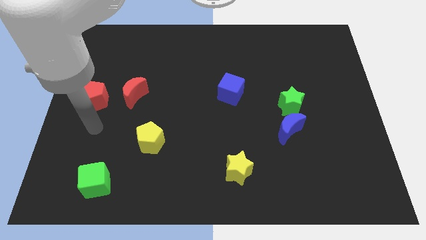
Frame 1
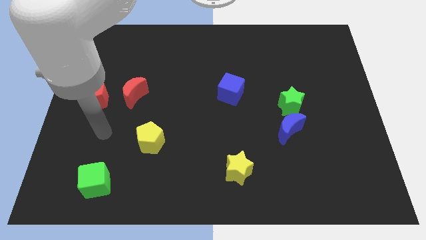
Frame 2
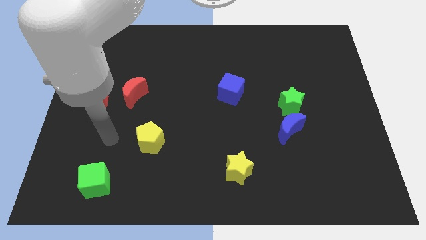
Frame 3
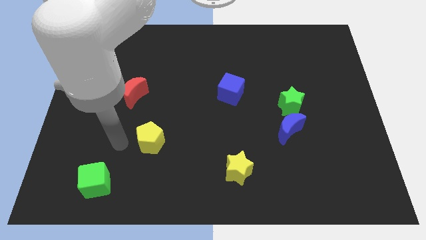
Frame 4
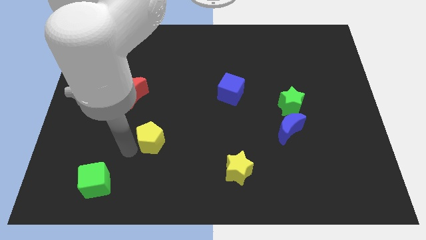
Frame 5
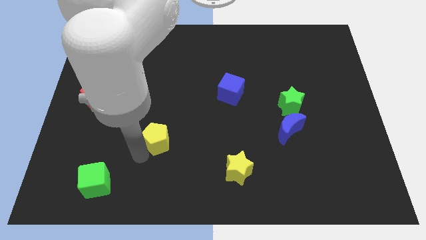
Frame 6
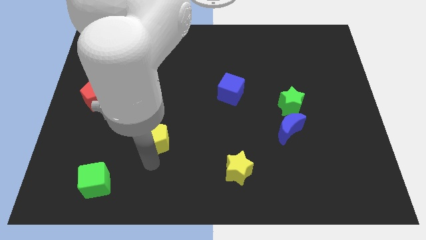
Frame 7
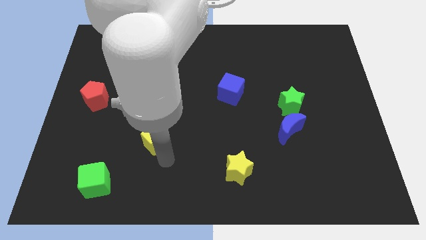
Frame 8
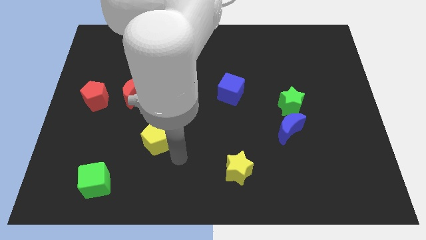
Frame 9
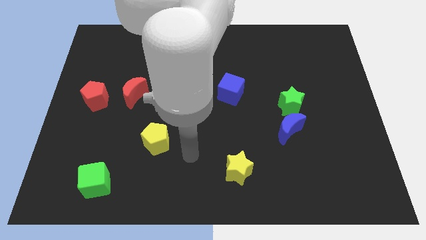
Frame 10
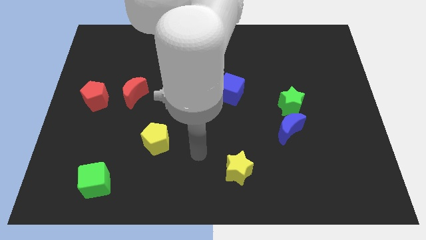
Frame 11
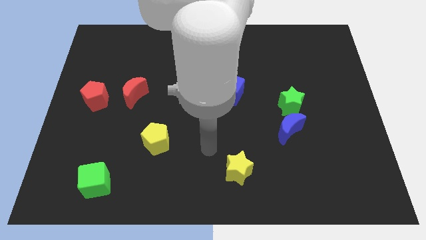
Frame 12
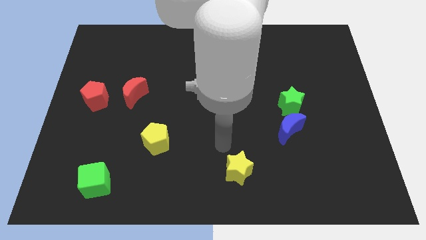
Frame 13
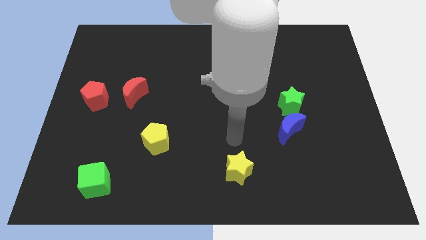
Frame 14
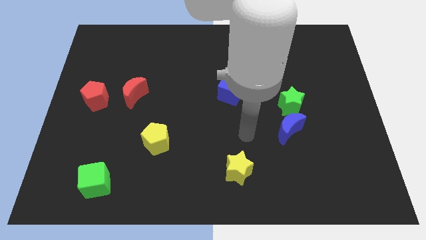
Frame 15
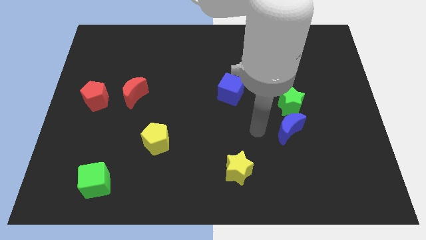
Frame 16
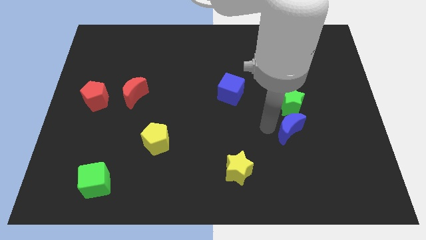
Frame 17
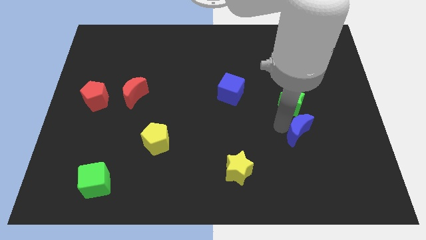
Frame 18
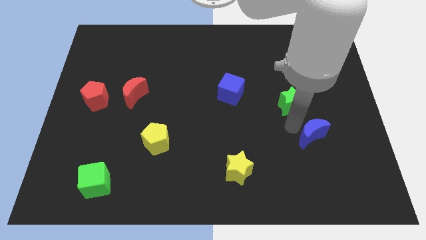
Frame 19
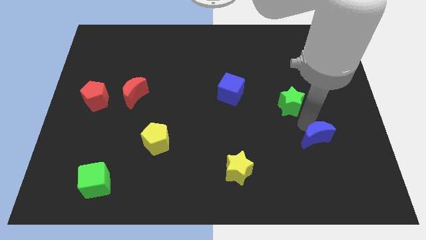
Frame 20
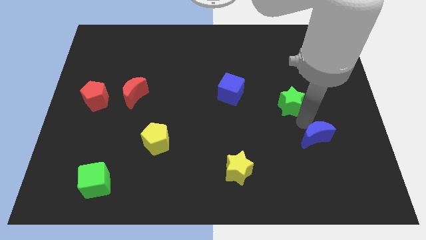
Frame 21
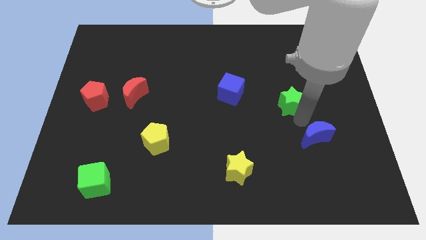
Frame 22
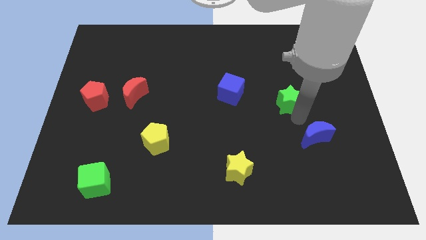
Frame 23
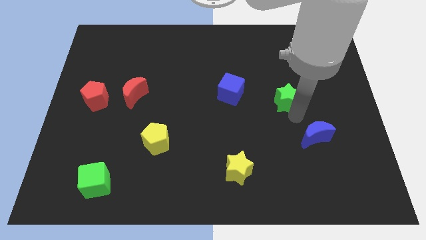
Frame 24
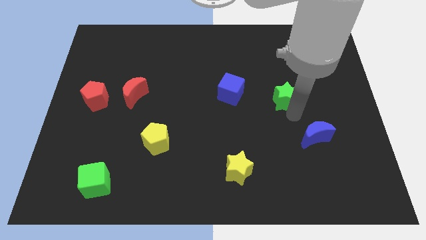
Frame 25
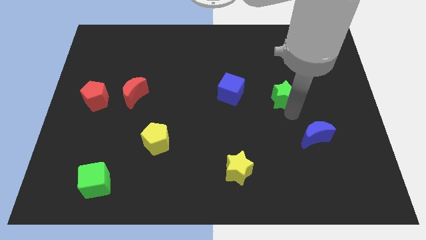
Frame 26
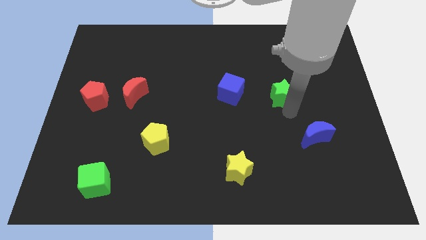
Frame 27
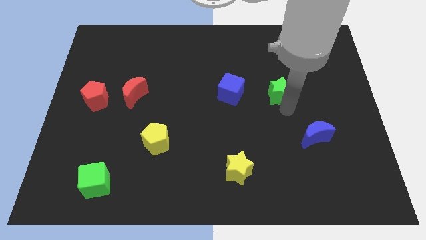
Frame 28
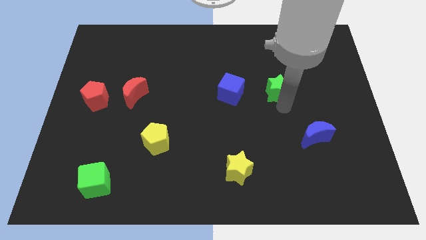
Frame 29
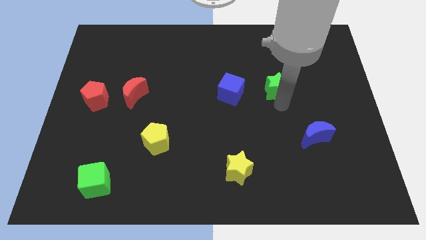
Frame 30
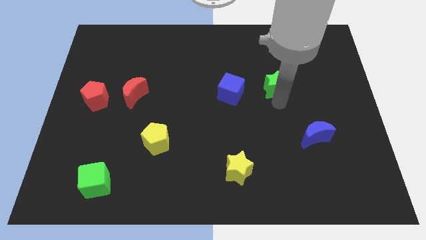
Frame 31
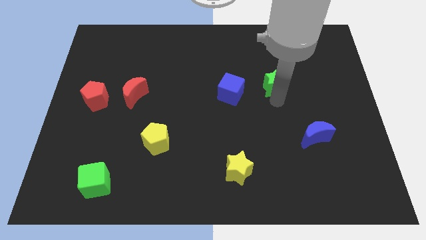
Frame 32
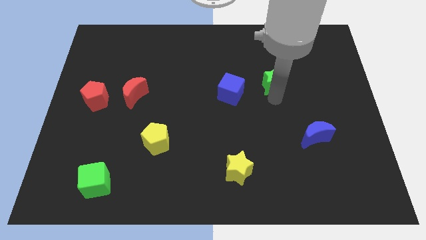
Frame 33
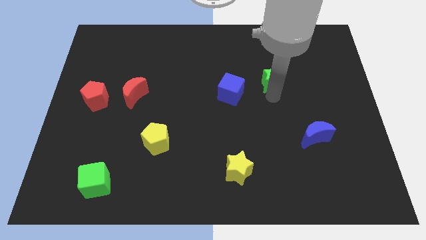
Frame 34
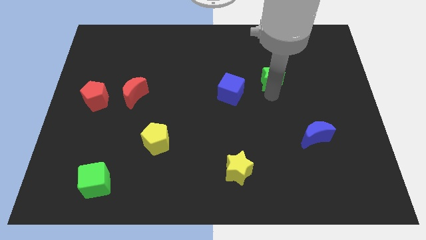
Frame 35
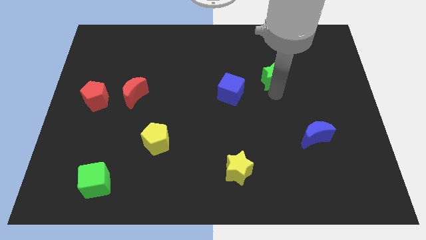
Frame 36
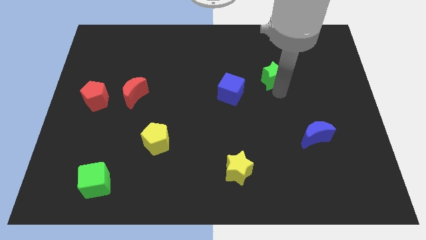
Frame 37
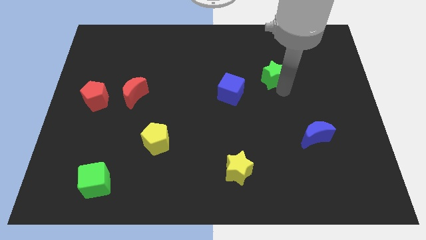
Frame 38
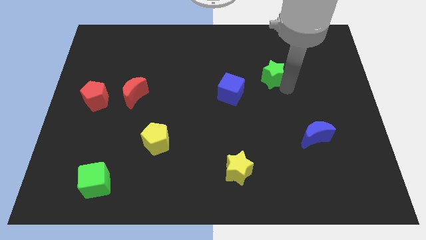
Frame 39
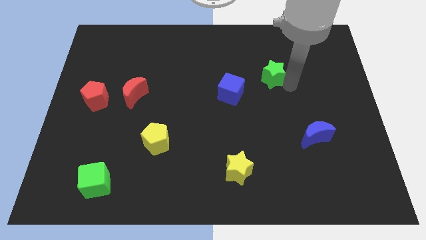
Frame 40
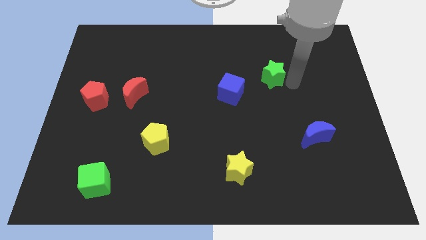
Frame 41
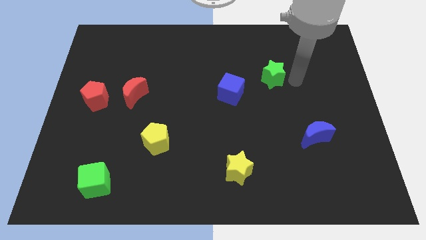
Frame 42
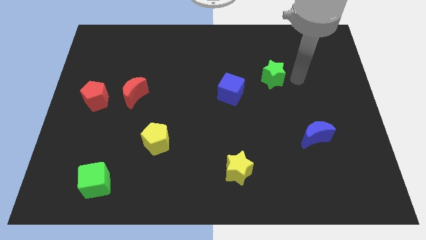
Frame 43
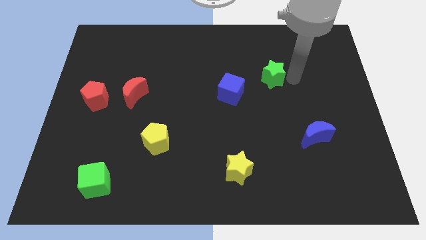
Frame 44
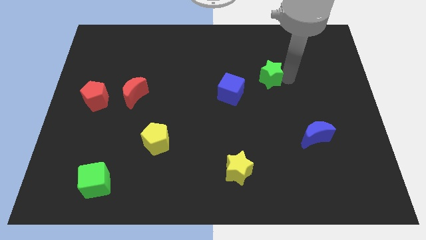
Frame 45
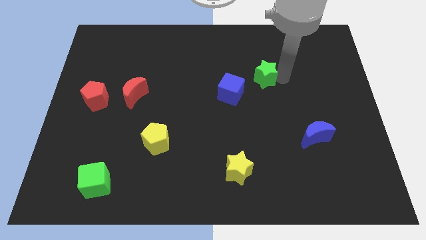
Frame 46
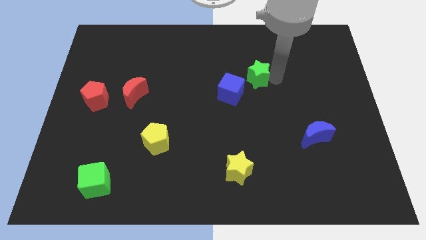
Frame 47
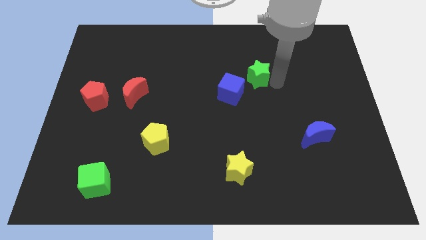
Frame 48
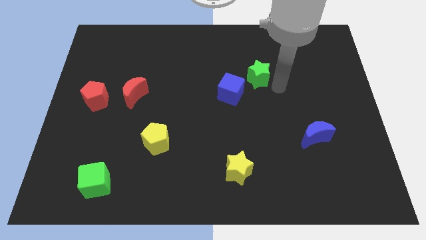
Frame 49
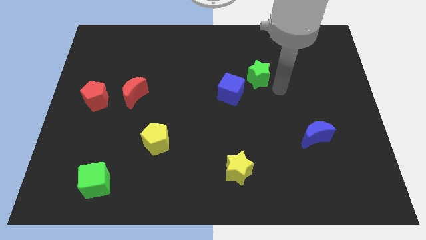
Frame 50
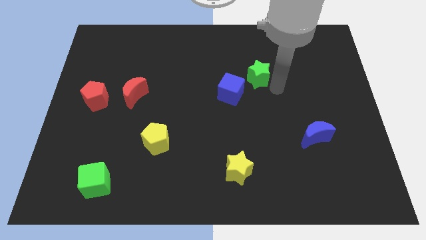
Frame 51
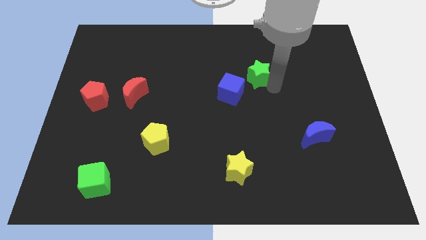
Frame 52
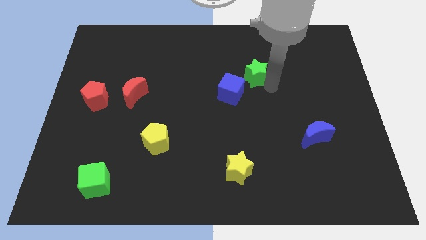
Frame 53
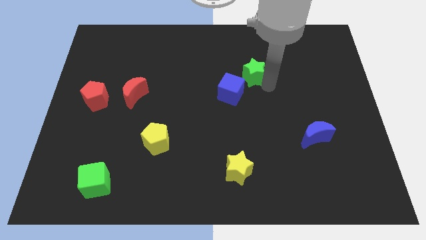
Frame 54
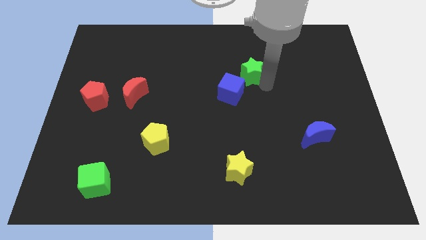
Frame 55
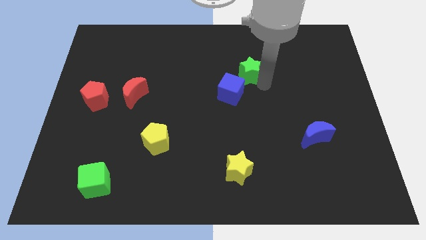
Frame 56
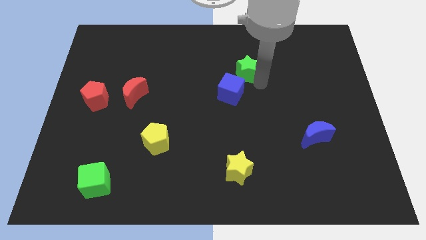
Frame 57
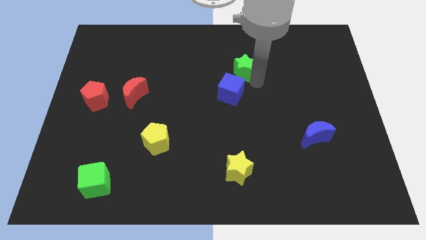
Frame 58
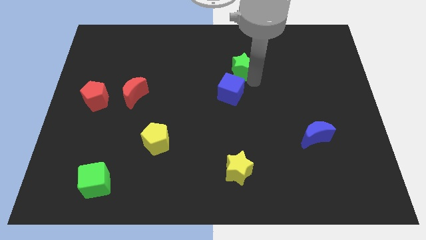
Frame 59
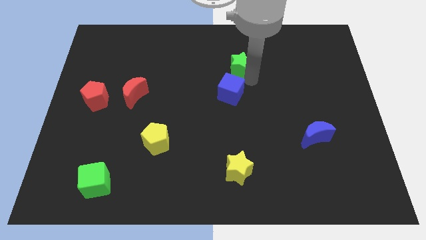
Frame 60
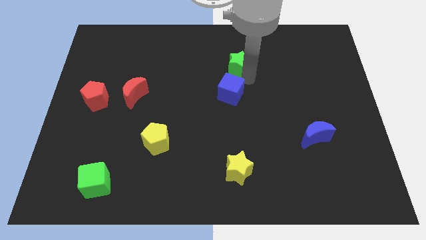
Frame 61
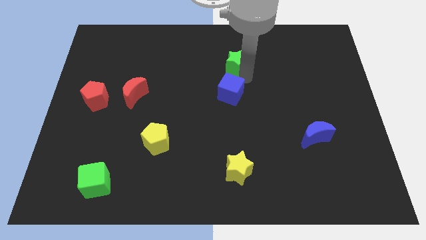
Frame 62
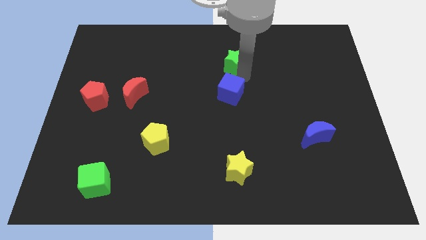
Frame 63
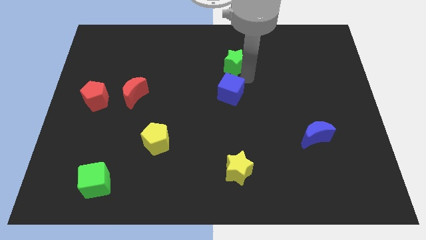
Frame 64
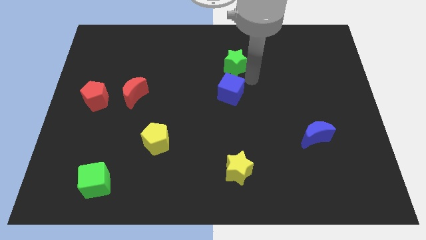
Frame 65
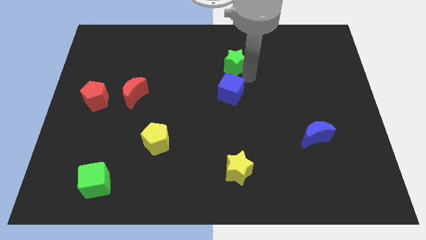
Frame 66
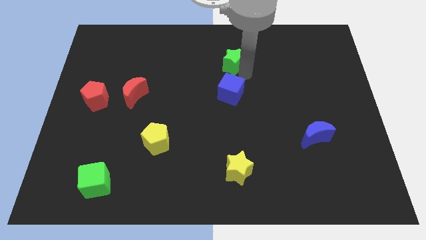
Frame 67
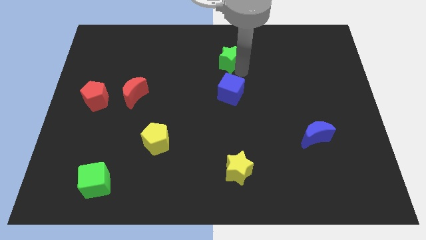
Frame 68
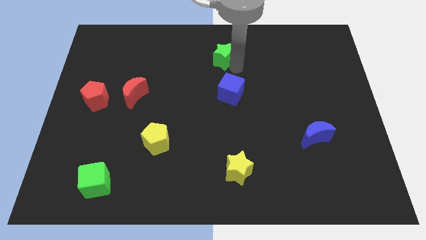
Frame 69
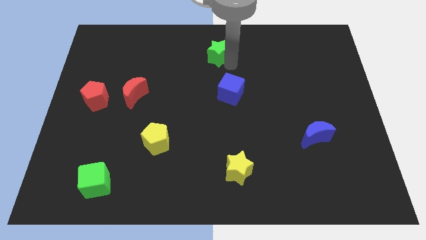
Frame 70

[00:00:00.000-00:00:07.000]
move the green star to the top side
